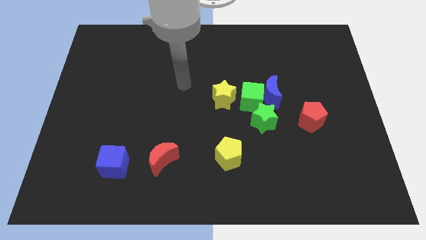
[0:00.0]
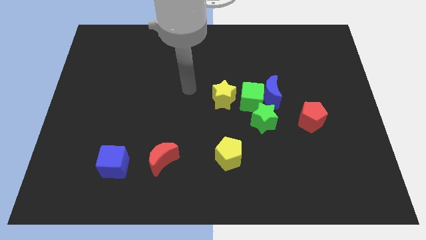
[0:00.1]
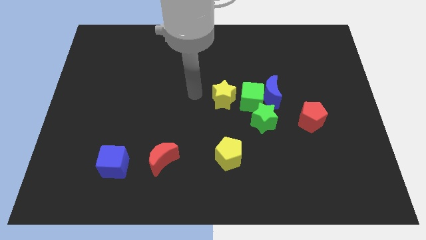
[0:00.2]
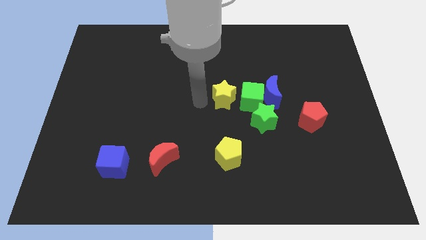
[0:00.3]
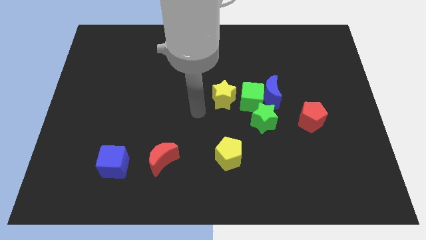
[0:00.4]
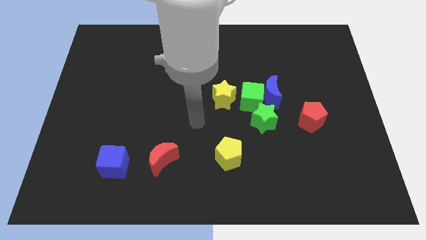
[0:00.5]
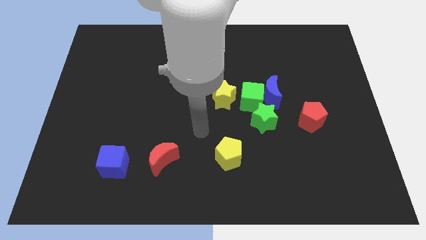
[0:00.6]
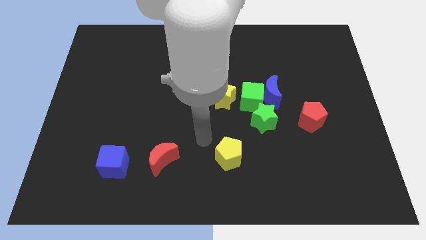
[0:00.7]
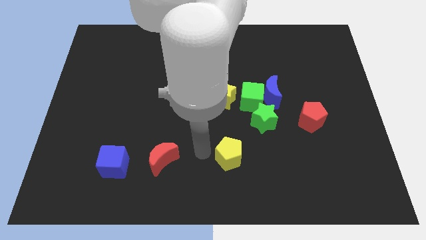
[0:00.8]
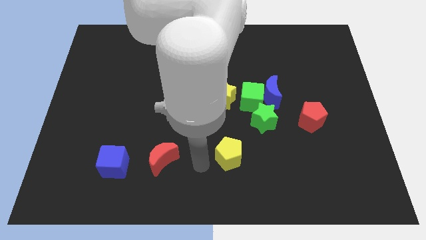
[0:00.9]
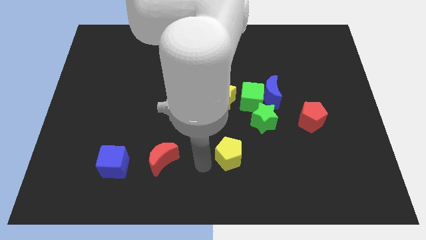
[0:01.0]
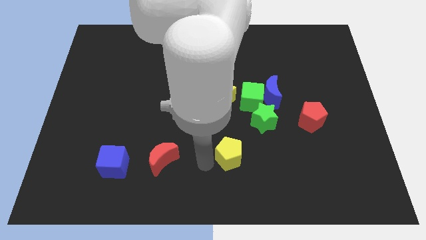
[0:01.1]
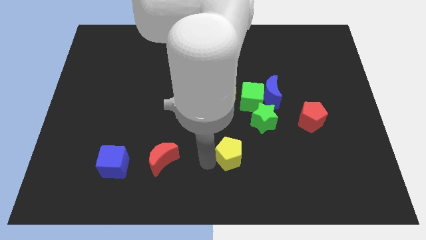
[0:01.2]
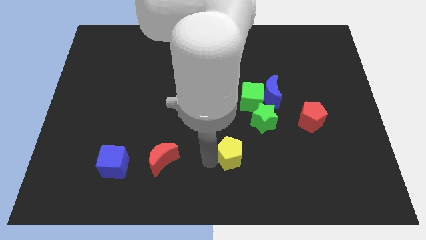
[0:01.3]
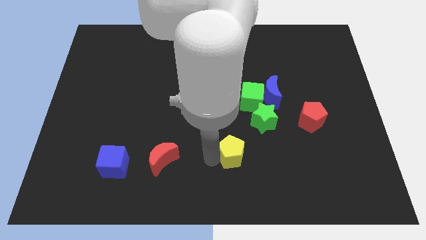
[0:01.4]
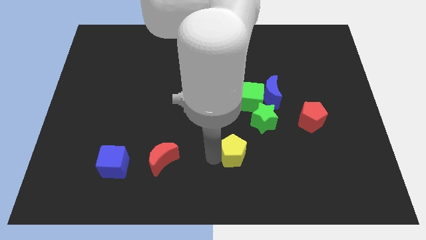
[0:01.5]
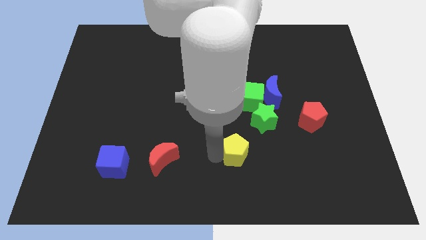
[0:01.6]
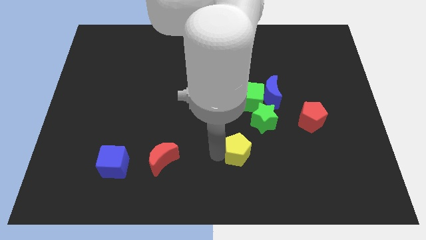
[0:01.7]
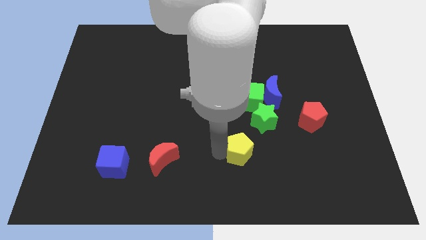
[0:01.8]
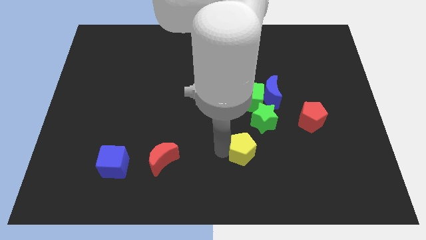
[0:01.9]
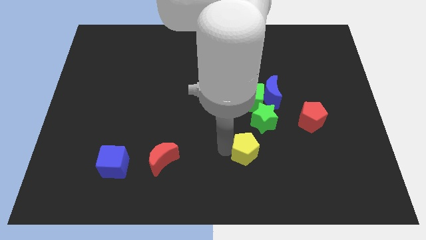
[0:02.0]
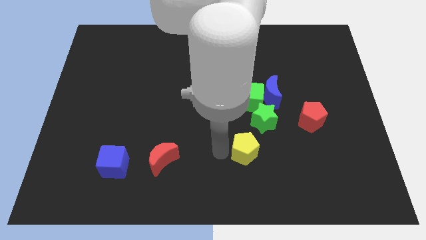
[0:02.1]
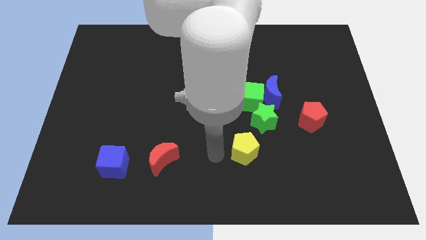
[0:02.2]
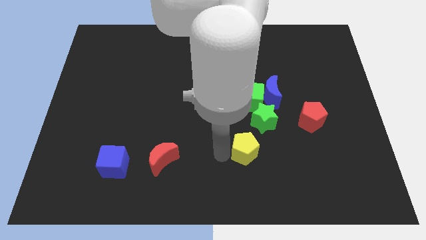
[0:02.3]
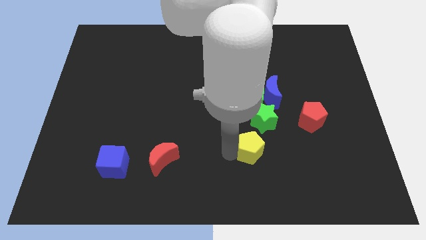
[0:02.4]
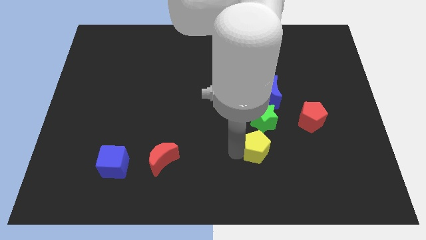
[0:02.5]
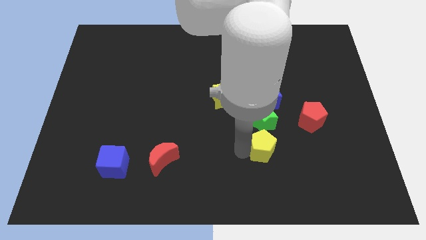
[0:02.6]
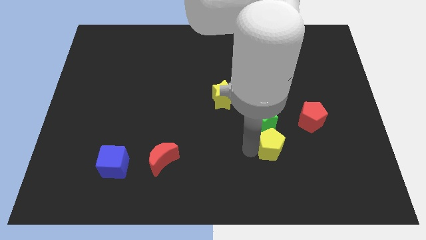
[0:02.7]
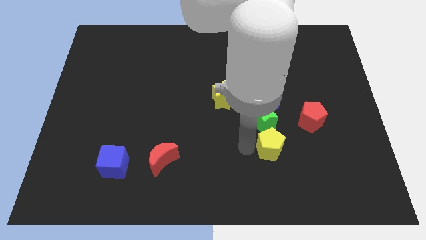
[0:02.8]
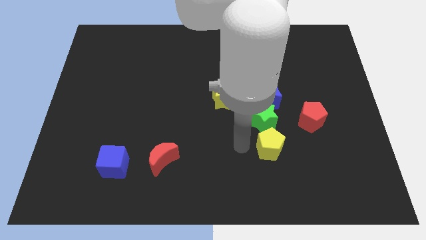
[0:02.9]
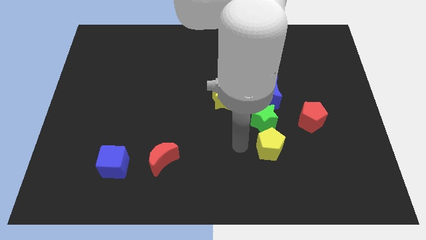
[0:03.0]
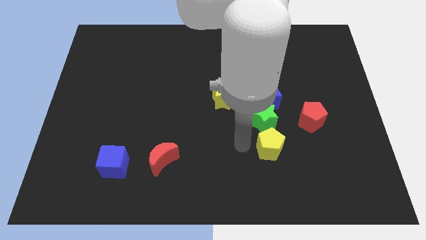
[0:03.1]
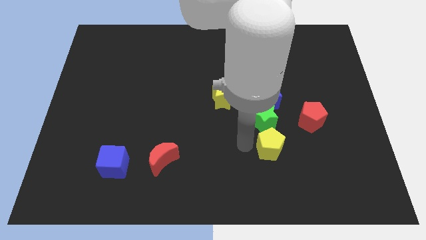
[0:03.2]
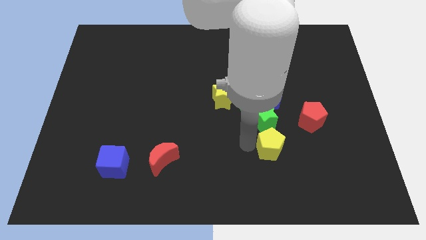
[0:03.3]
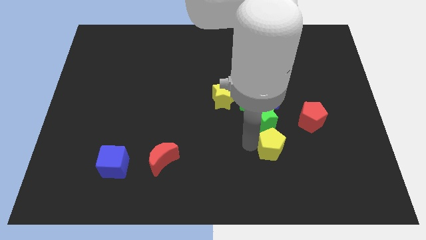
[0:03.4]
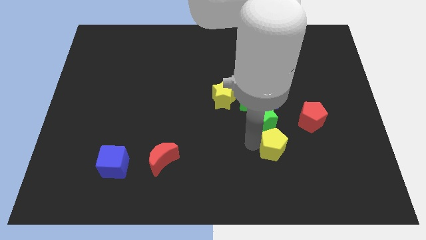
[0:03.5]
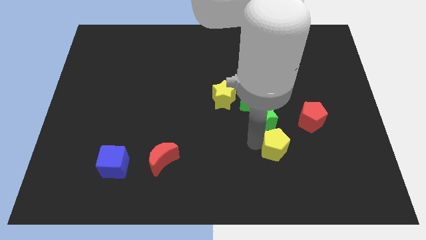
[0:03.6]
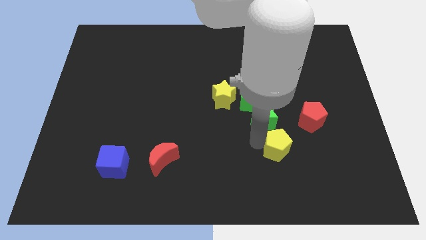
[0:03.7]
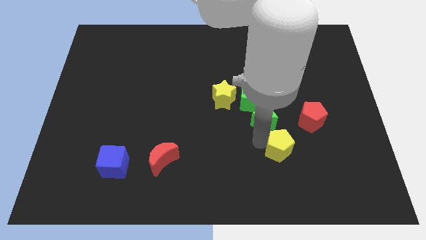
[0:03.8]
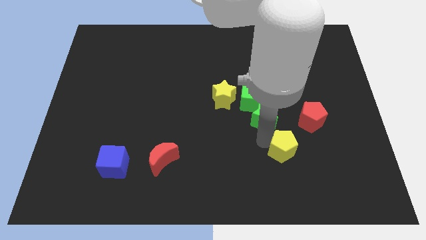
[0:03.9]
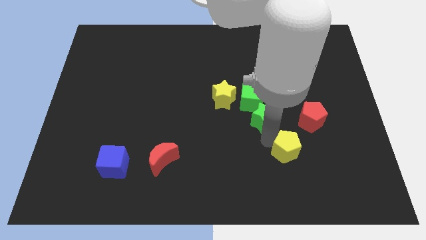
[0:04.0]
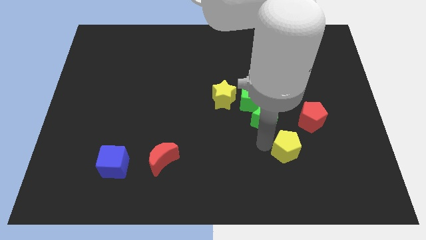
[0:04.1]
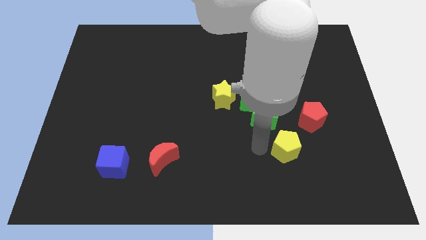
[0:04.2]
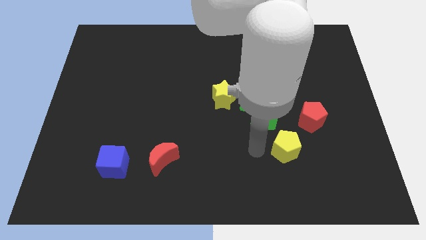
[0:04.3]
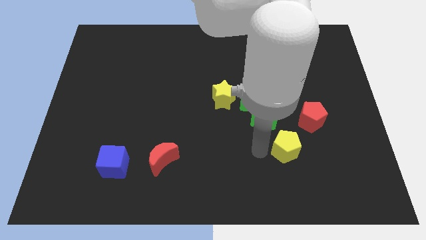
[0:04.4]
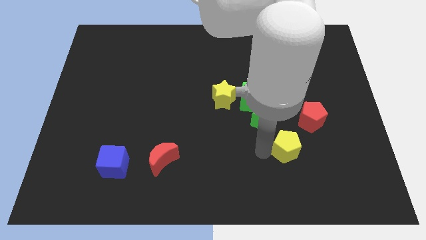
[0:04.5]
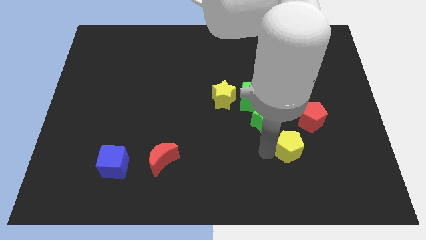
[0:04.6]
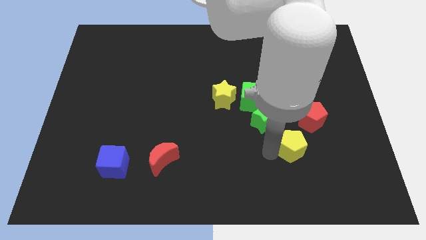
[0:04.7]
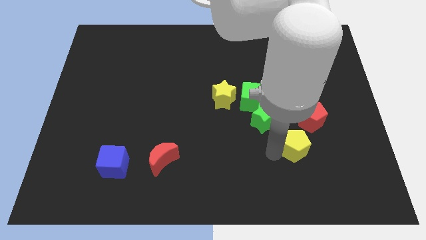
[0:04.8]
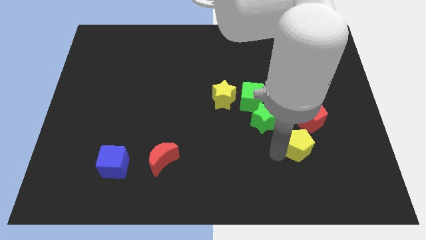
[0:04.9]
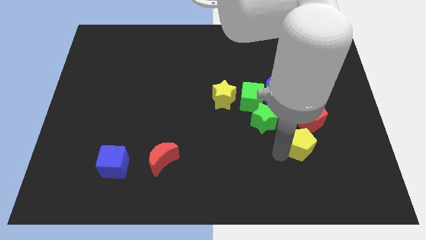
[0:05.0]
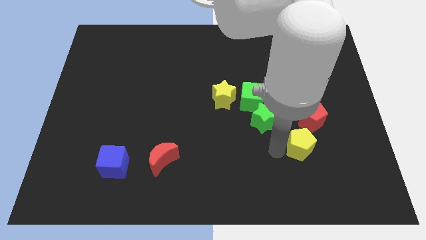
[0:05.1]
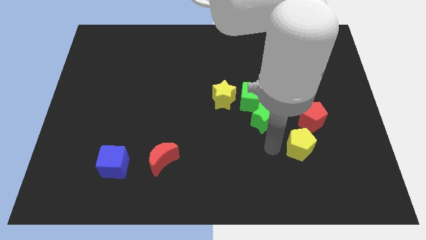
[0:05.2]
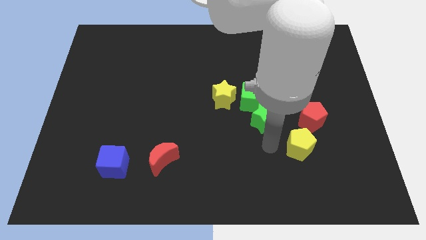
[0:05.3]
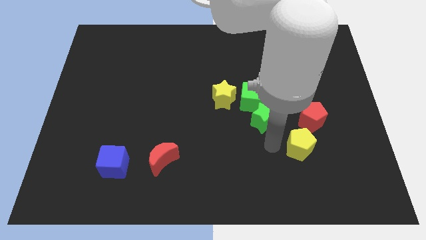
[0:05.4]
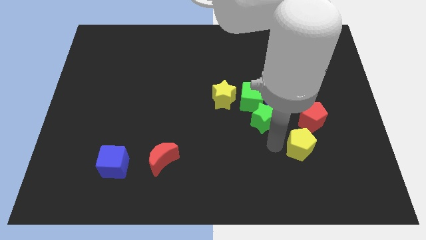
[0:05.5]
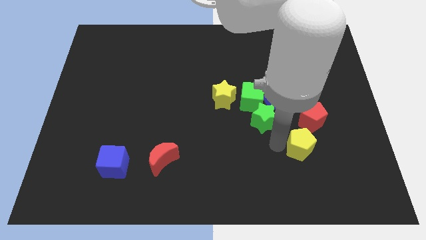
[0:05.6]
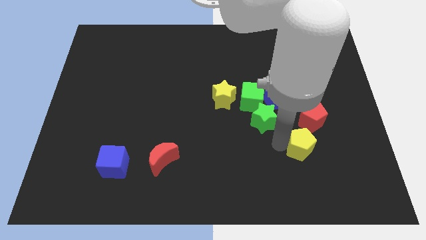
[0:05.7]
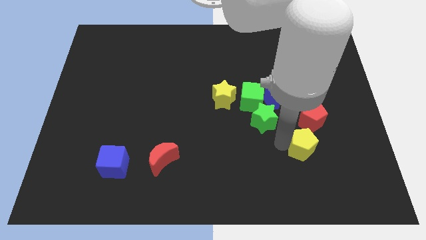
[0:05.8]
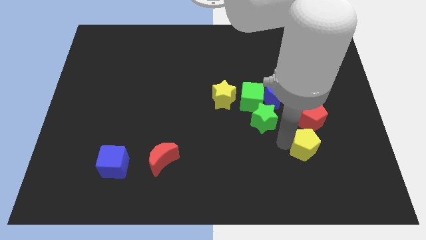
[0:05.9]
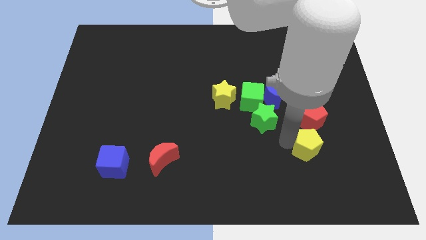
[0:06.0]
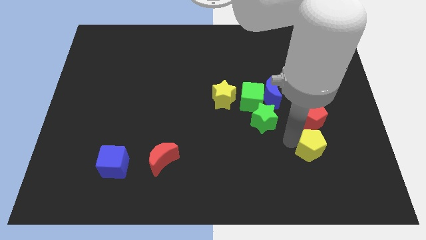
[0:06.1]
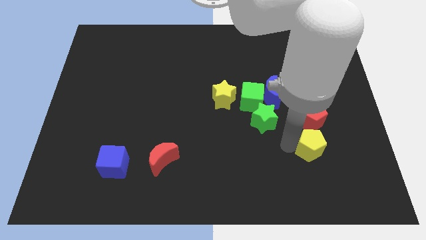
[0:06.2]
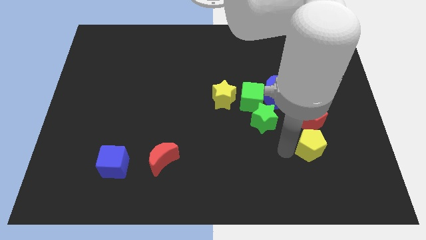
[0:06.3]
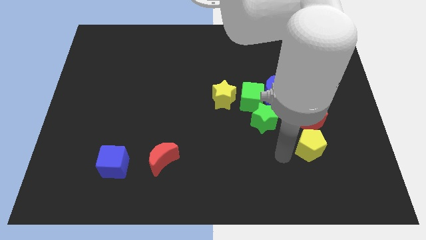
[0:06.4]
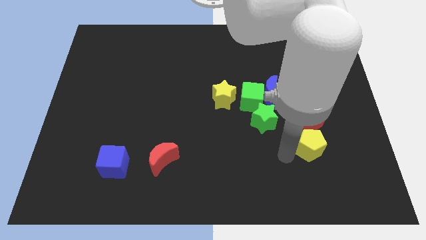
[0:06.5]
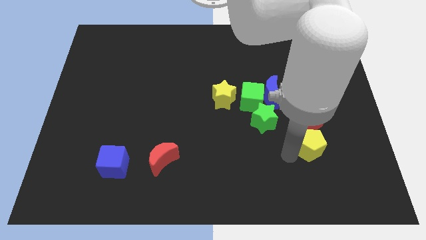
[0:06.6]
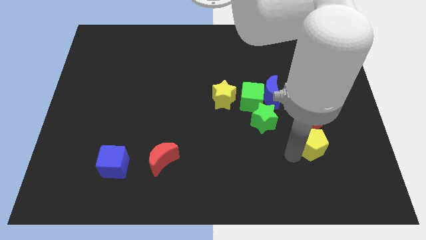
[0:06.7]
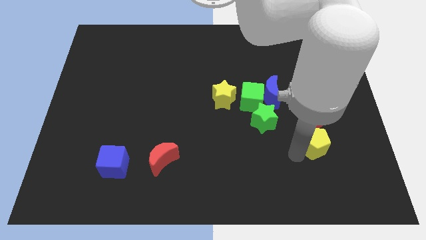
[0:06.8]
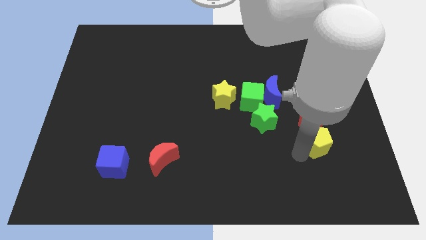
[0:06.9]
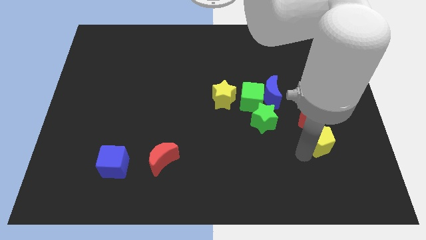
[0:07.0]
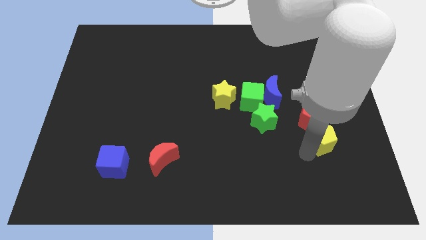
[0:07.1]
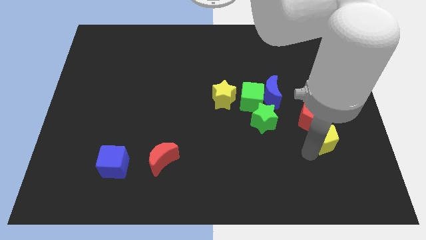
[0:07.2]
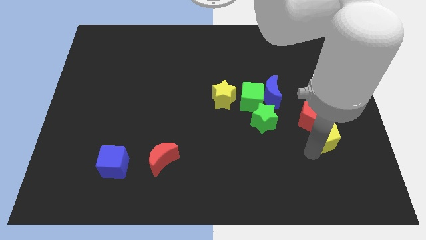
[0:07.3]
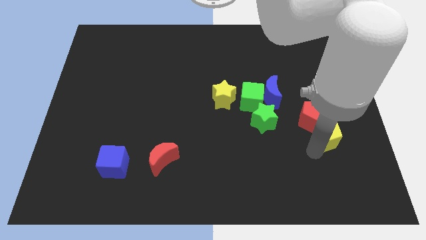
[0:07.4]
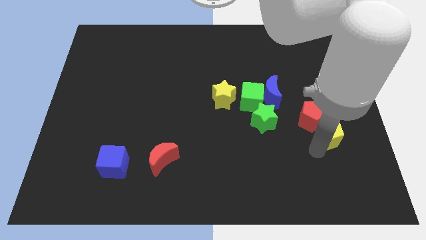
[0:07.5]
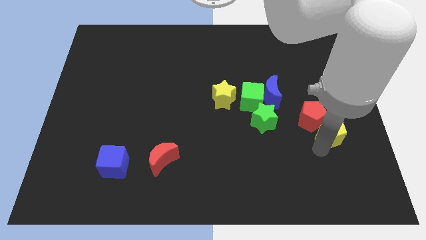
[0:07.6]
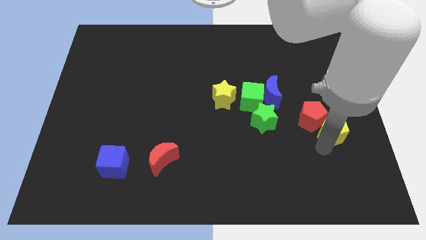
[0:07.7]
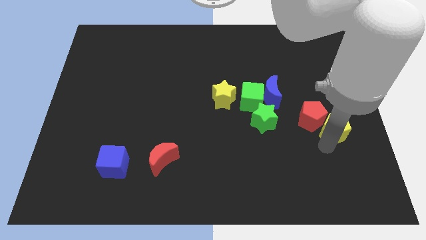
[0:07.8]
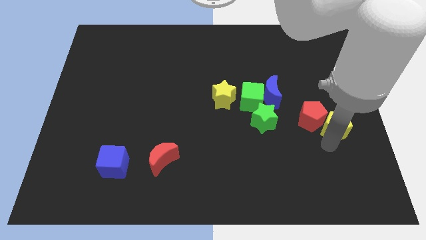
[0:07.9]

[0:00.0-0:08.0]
move the yellow pentagon to the center right
